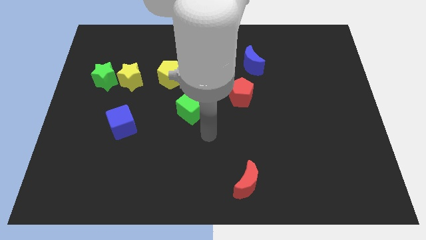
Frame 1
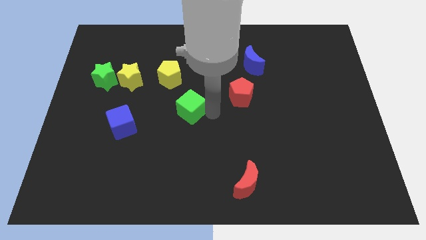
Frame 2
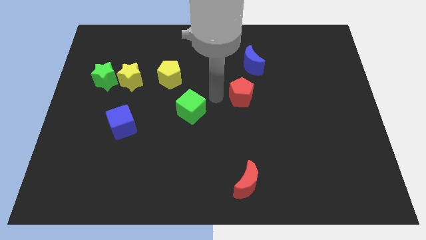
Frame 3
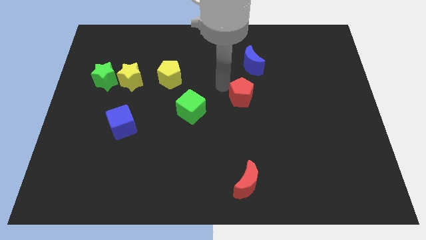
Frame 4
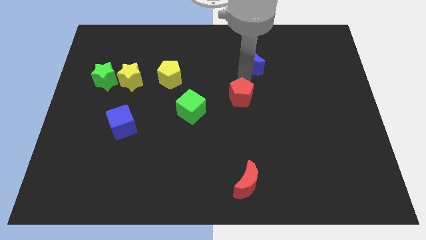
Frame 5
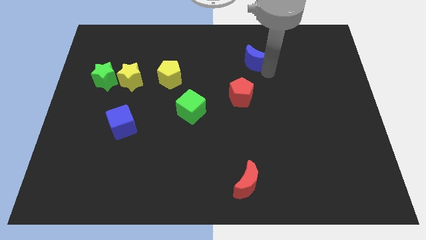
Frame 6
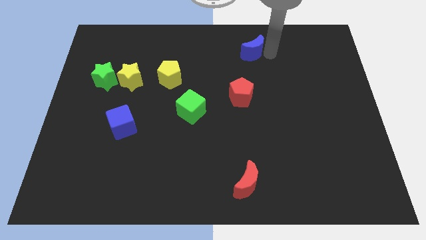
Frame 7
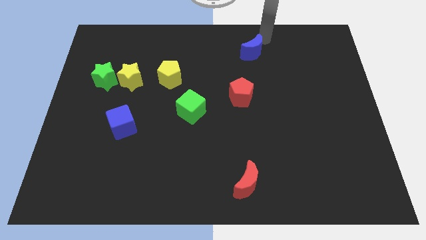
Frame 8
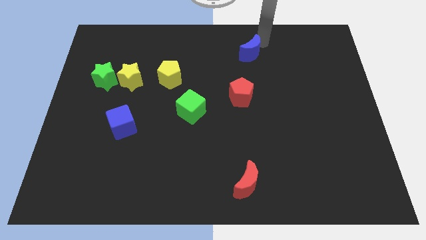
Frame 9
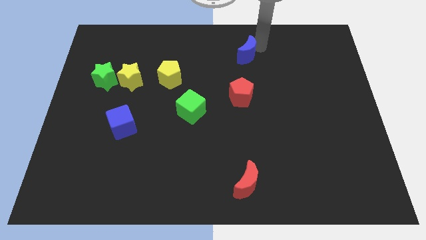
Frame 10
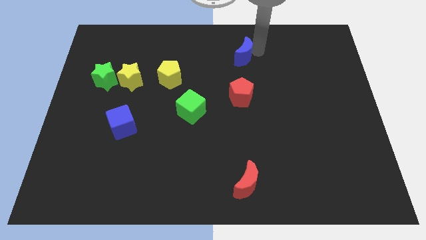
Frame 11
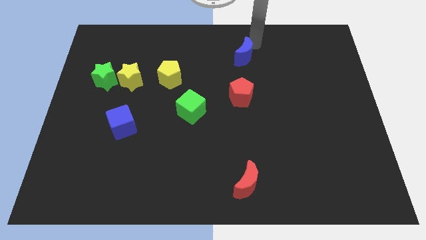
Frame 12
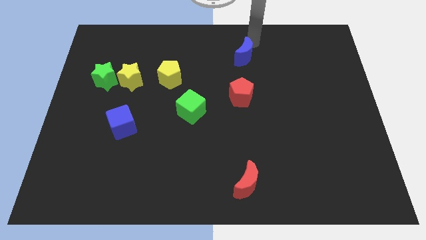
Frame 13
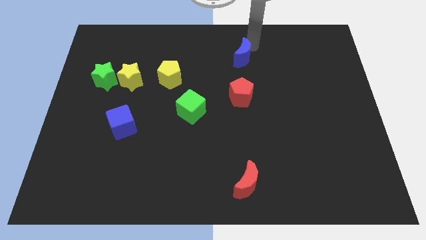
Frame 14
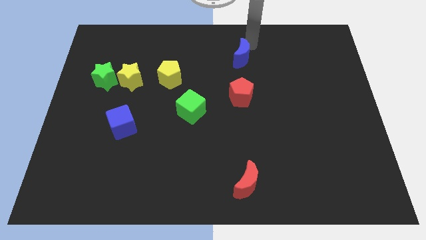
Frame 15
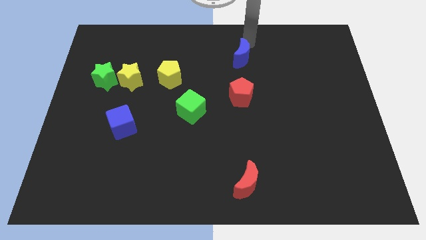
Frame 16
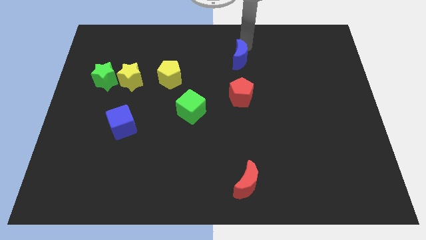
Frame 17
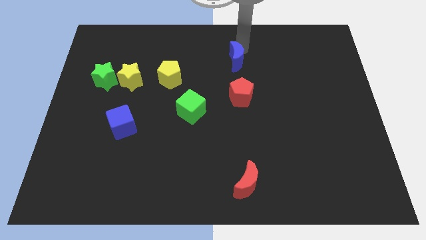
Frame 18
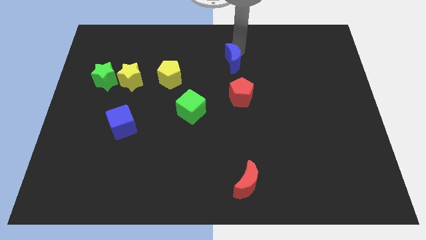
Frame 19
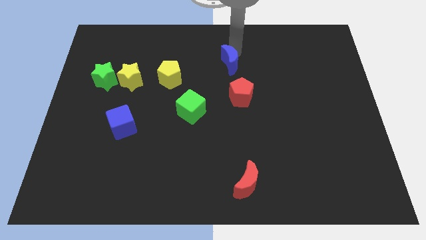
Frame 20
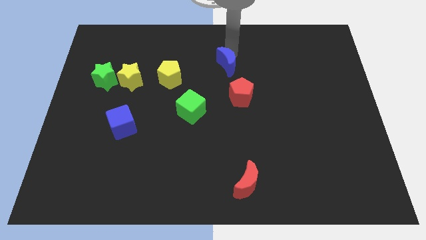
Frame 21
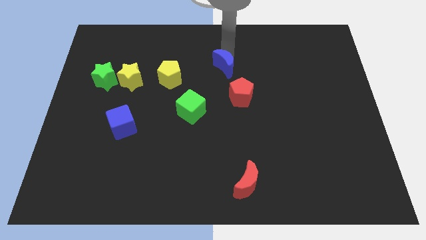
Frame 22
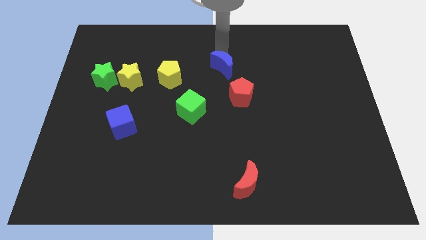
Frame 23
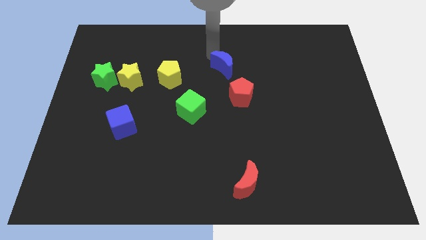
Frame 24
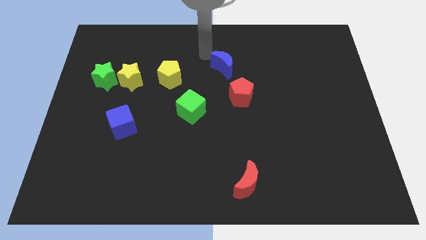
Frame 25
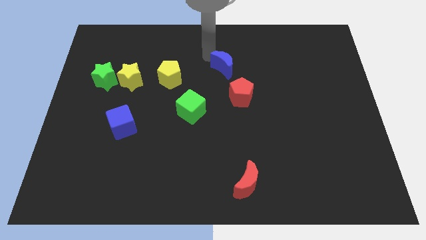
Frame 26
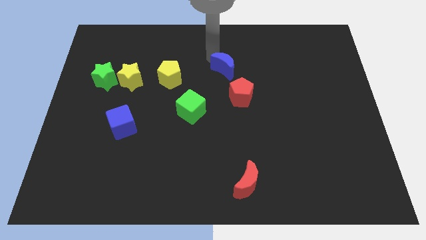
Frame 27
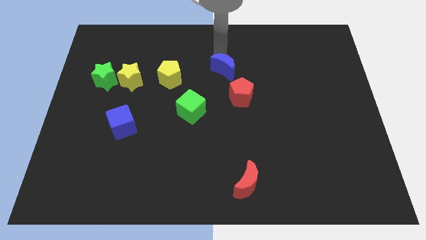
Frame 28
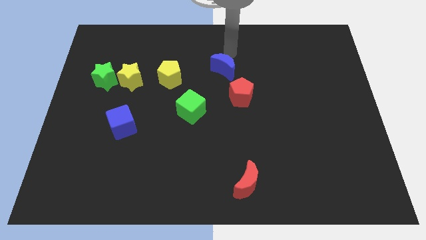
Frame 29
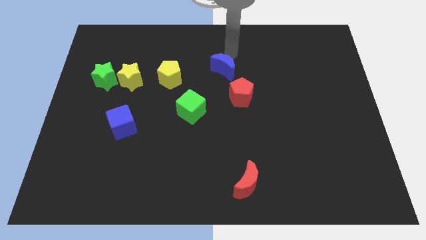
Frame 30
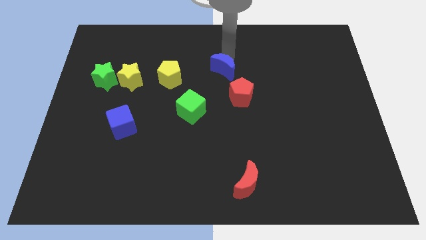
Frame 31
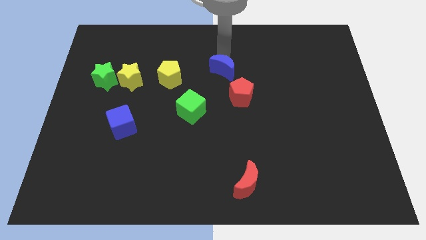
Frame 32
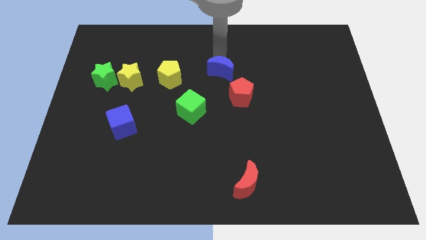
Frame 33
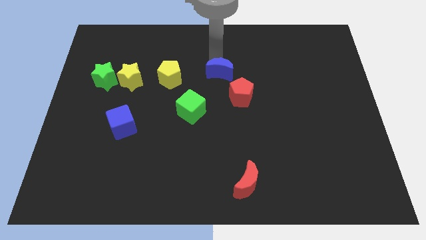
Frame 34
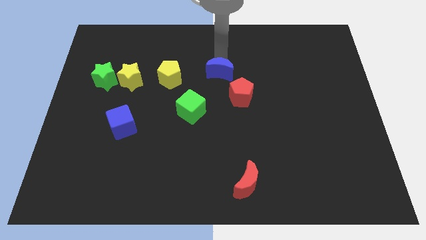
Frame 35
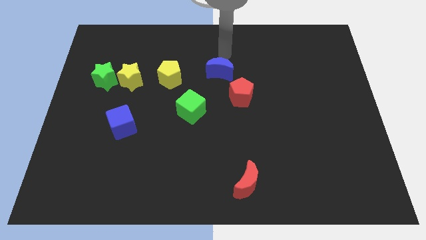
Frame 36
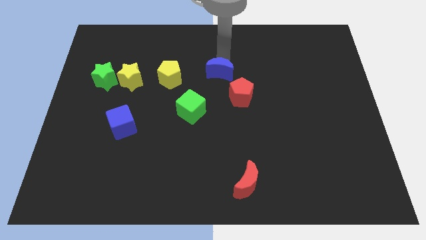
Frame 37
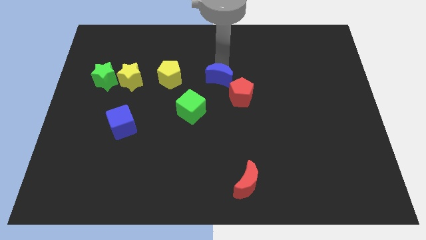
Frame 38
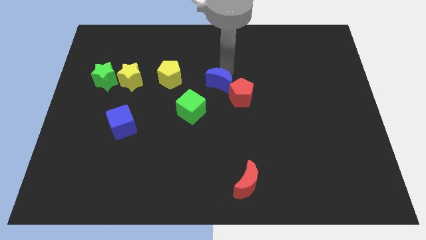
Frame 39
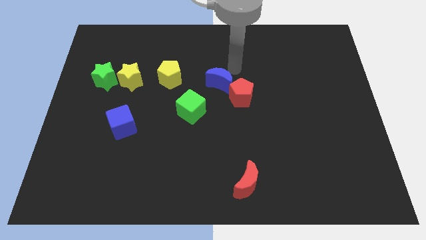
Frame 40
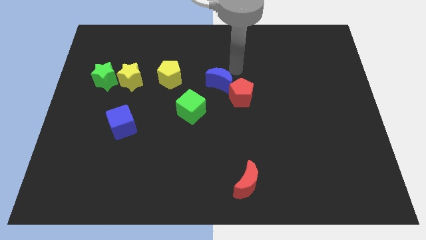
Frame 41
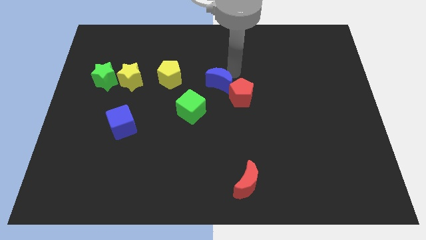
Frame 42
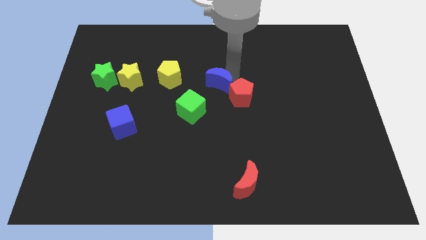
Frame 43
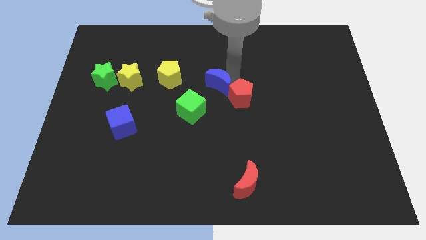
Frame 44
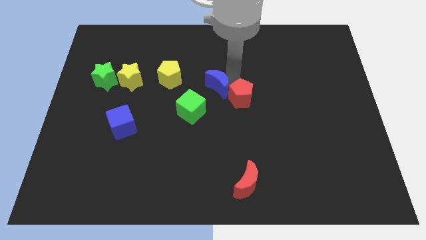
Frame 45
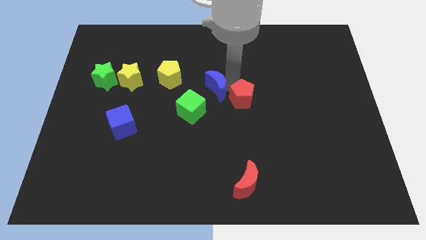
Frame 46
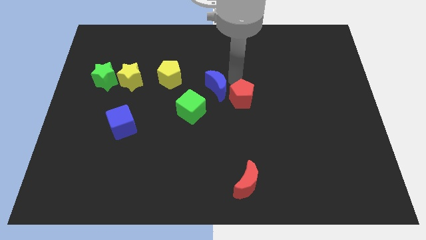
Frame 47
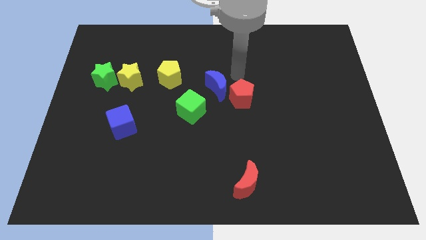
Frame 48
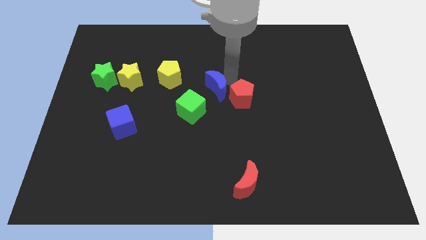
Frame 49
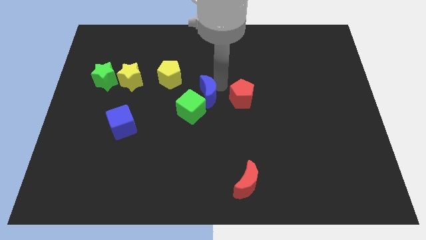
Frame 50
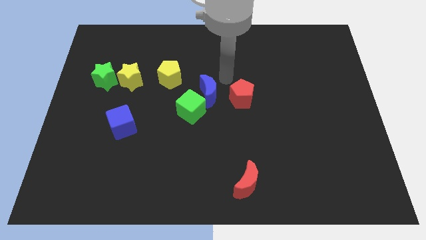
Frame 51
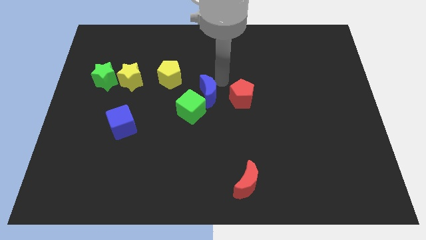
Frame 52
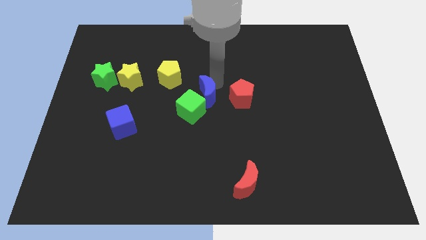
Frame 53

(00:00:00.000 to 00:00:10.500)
move the blue moon towards the green cube

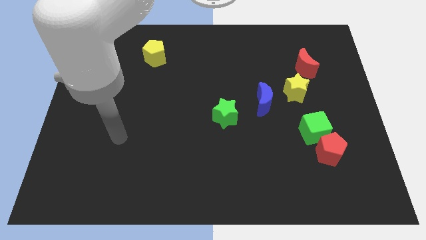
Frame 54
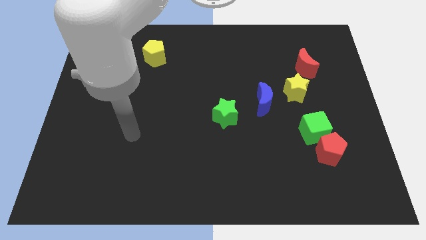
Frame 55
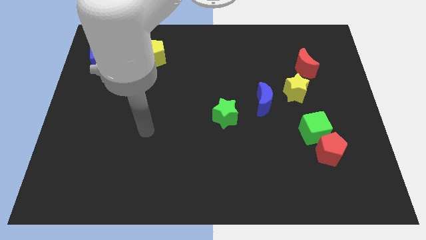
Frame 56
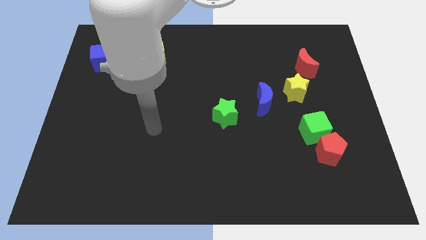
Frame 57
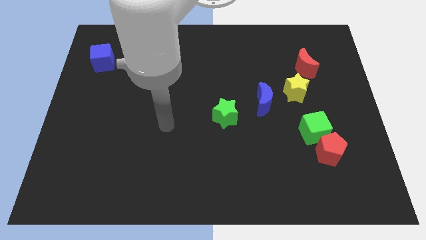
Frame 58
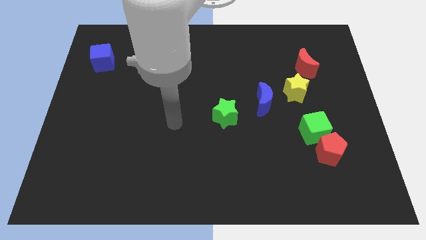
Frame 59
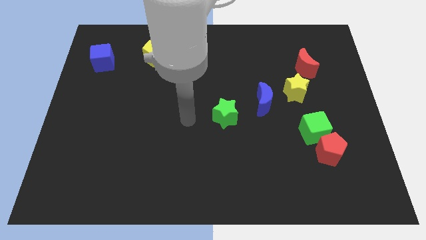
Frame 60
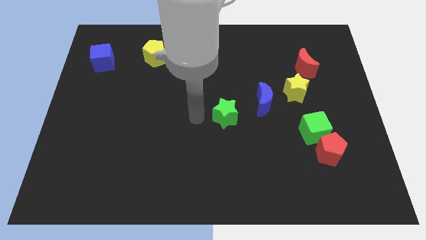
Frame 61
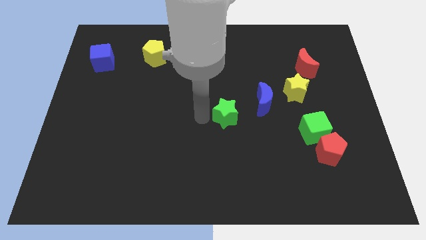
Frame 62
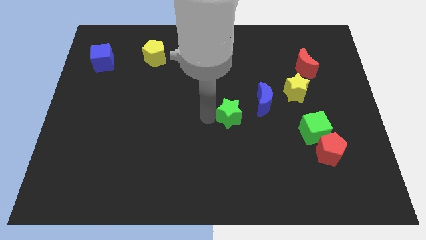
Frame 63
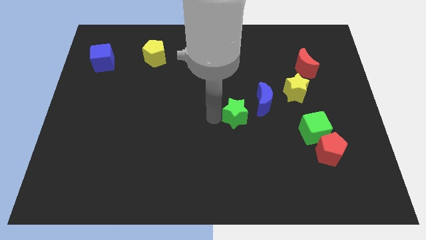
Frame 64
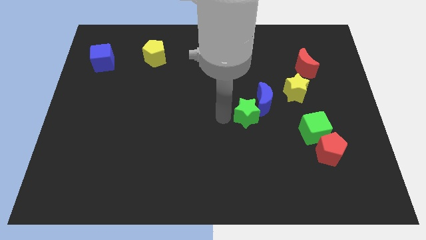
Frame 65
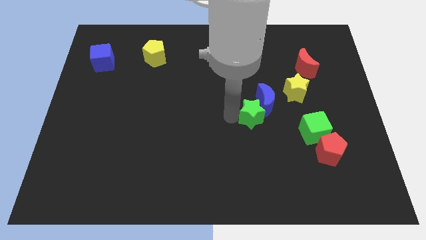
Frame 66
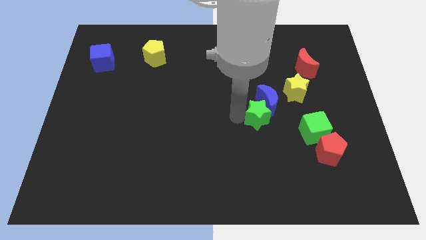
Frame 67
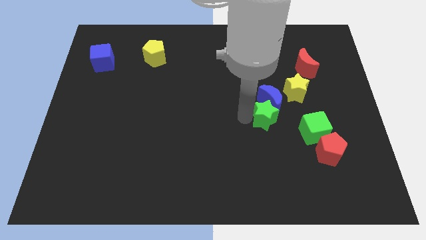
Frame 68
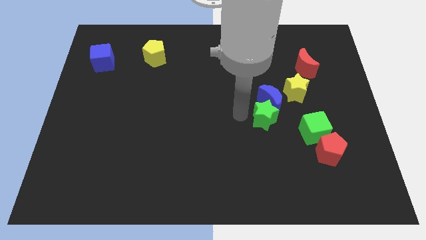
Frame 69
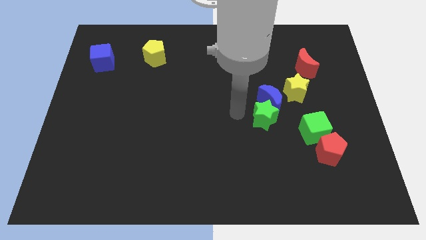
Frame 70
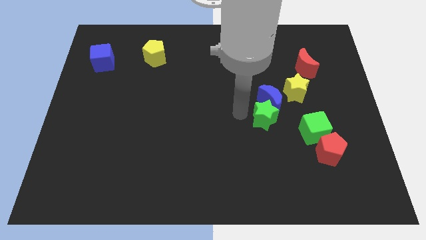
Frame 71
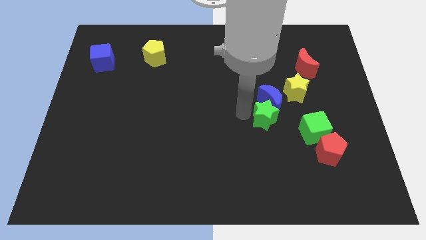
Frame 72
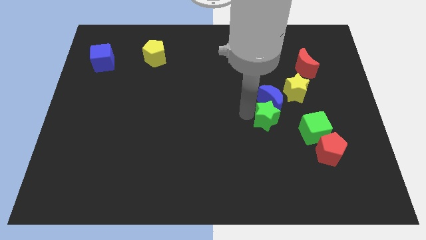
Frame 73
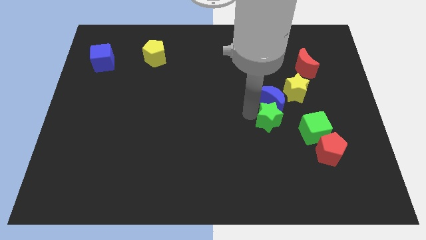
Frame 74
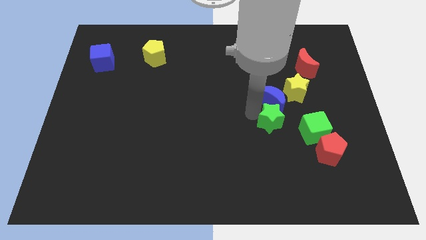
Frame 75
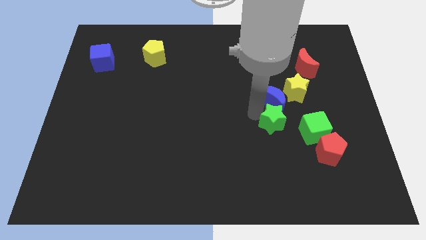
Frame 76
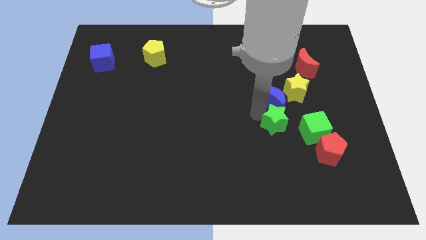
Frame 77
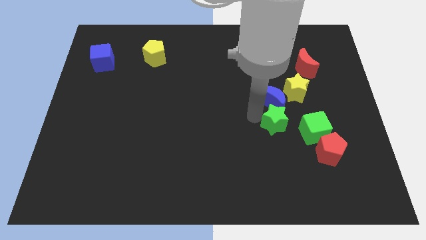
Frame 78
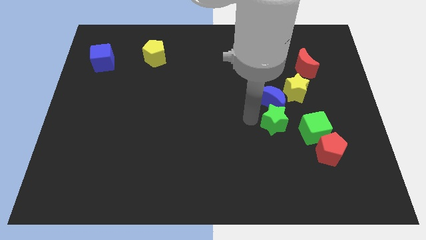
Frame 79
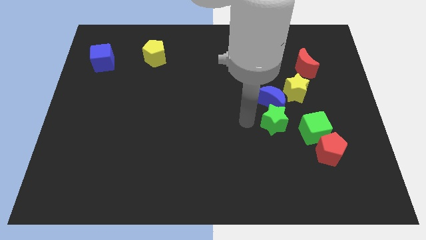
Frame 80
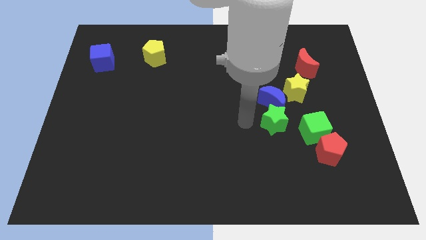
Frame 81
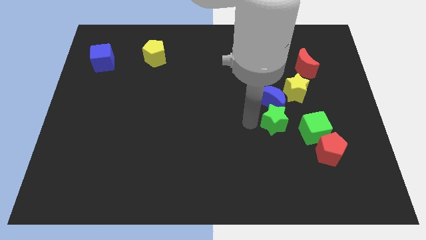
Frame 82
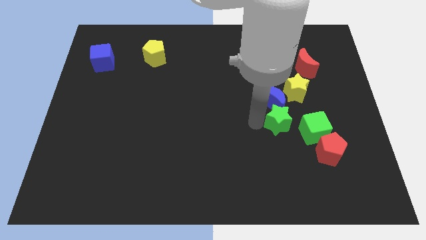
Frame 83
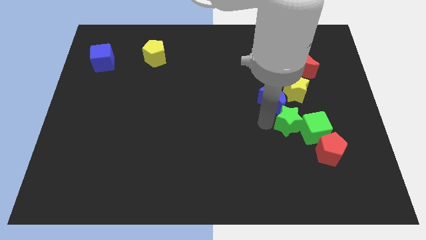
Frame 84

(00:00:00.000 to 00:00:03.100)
put the green star towards the green cube
